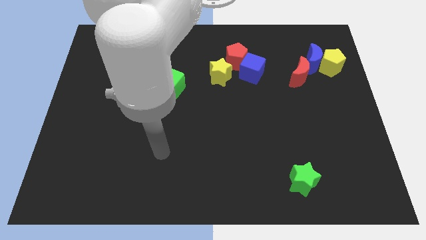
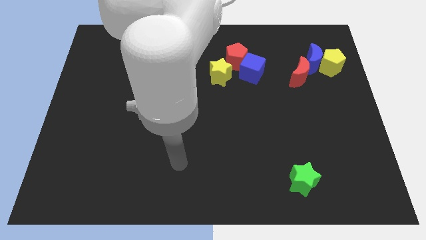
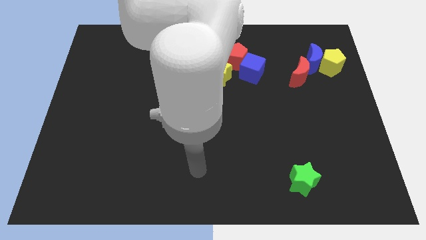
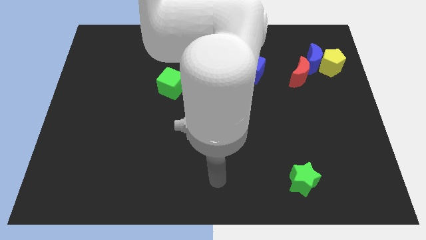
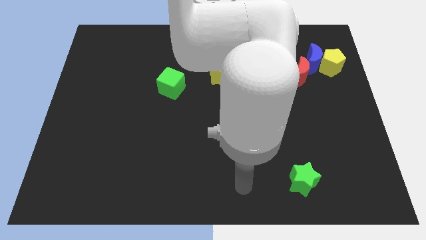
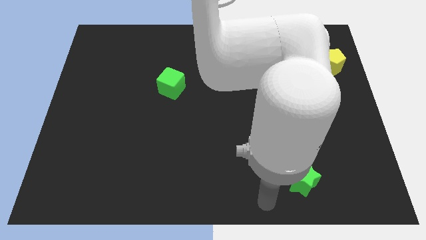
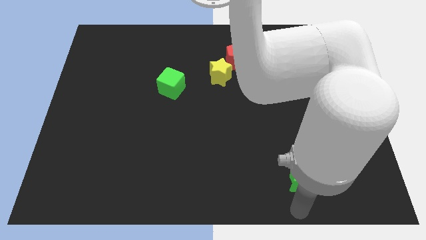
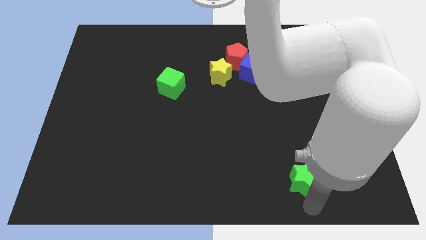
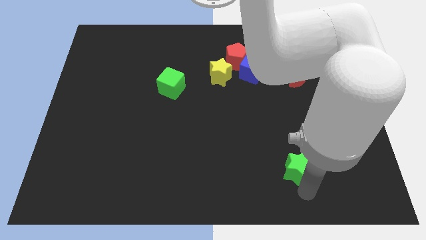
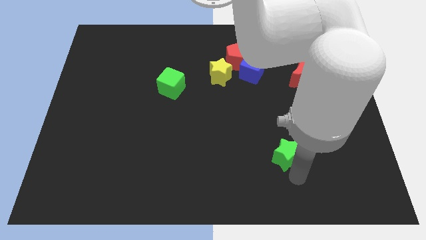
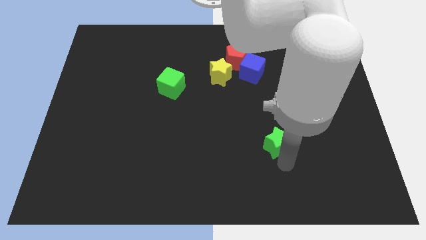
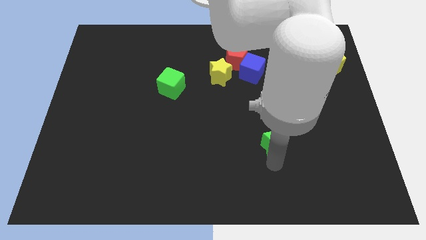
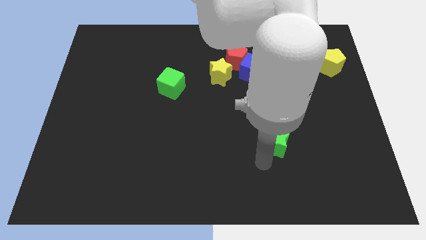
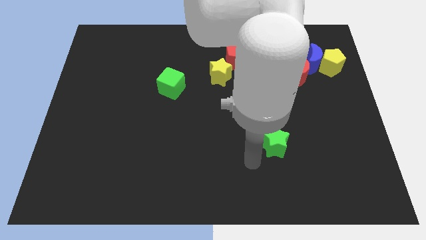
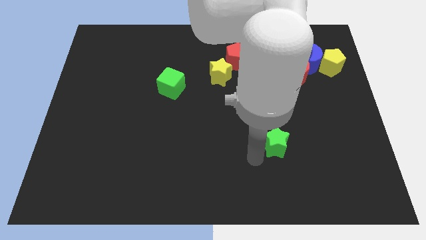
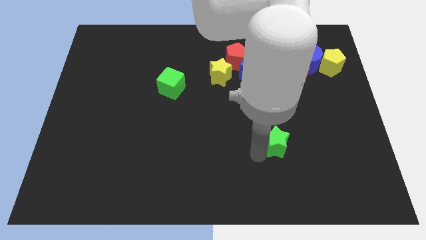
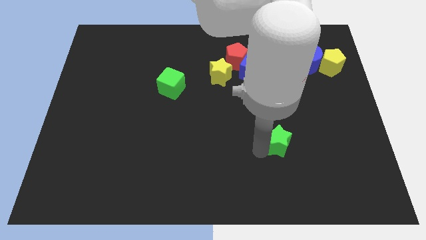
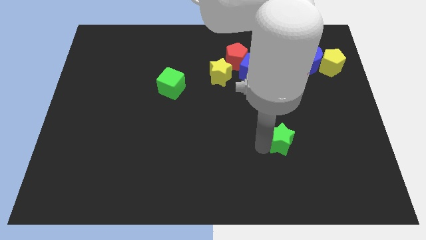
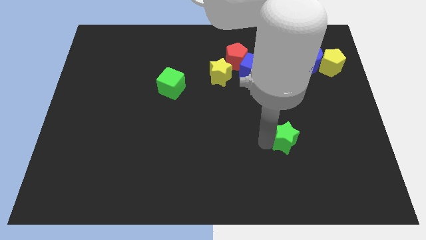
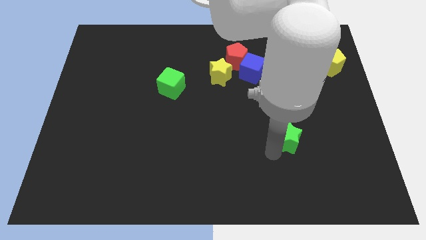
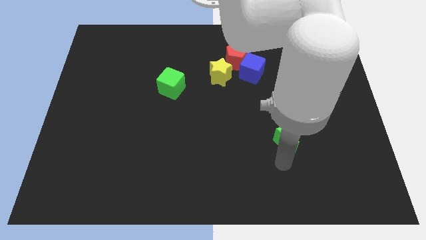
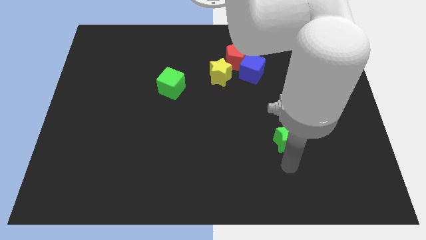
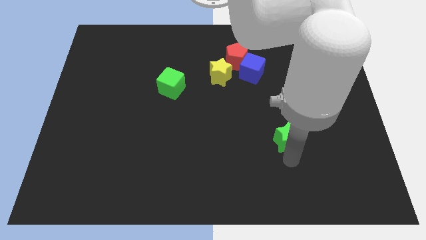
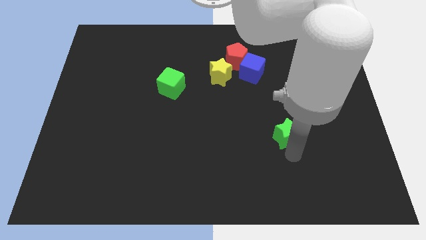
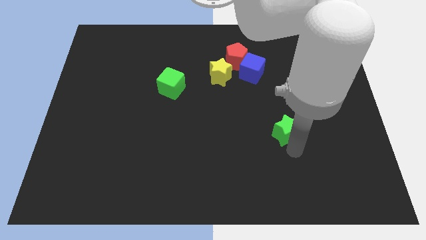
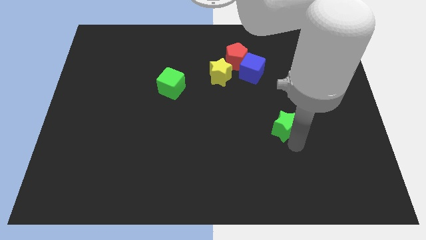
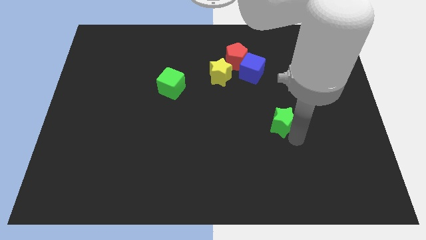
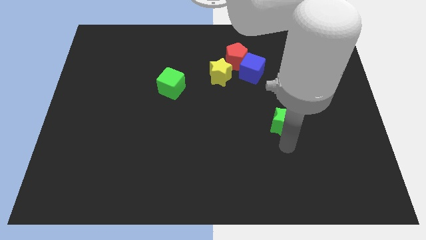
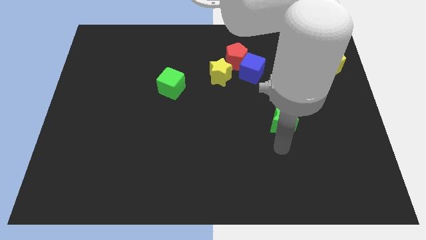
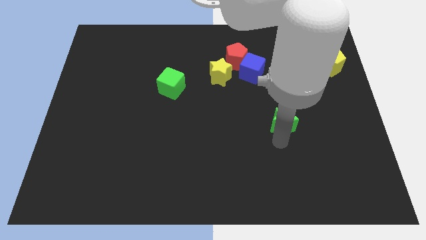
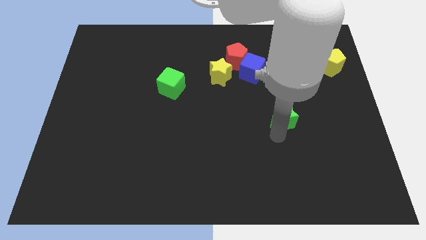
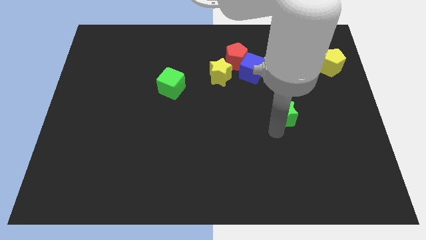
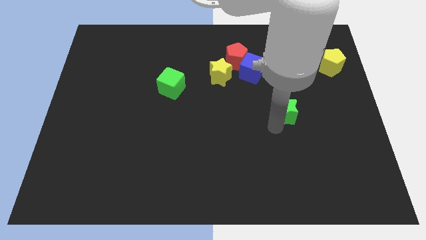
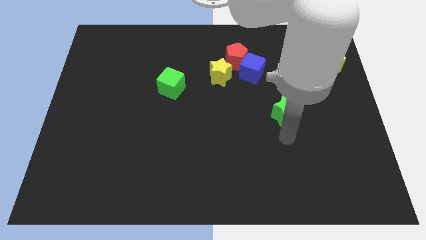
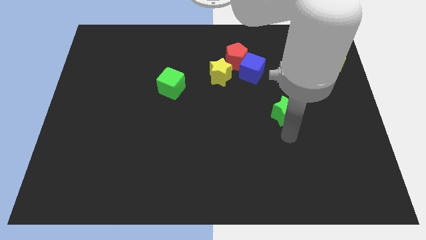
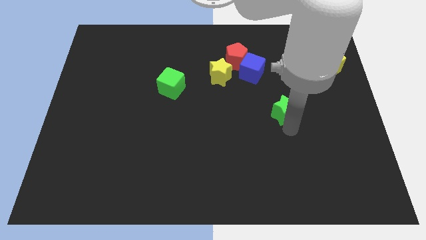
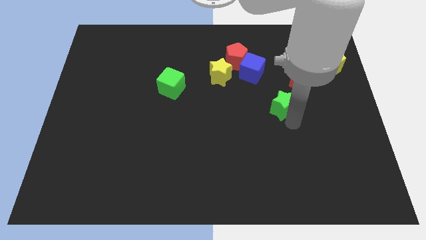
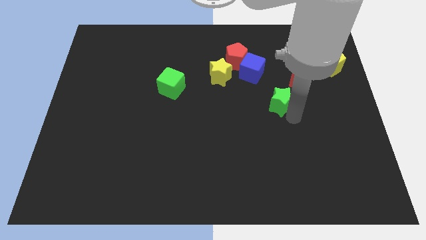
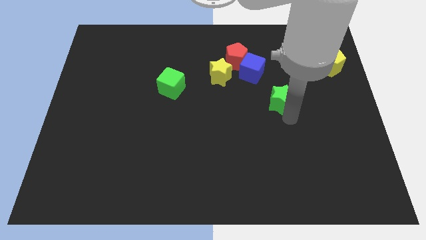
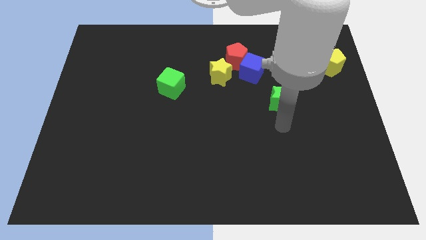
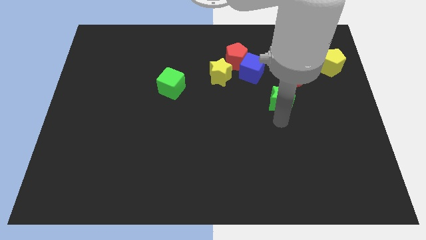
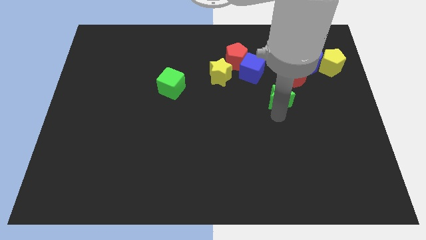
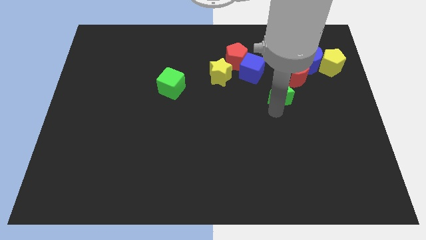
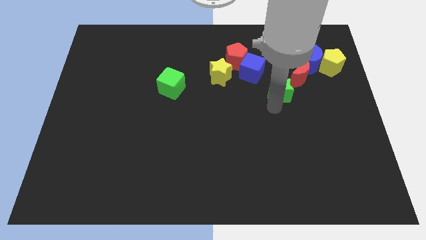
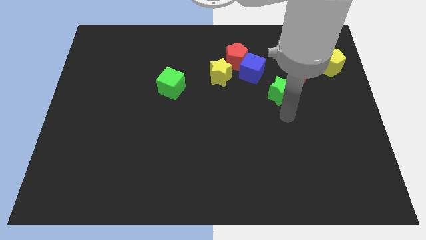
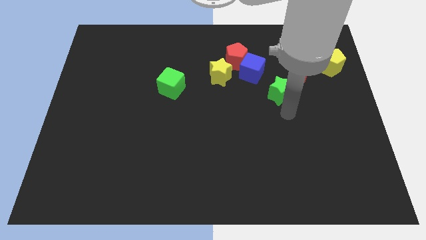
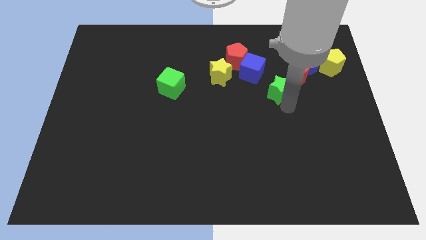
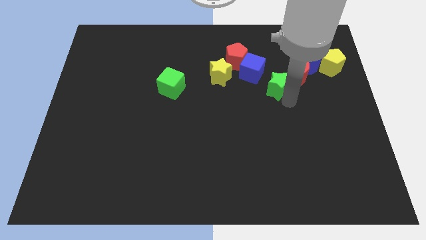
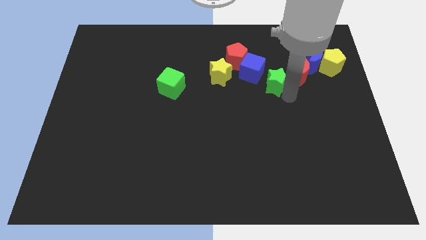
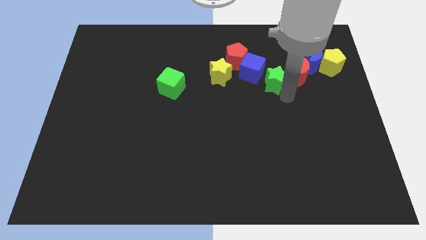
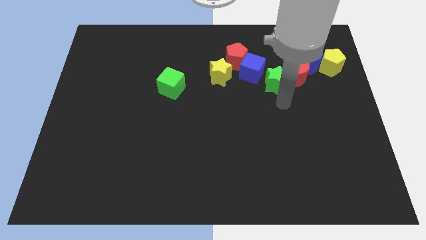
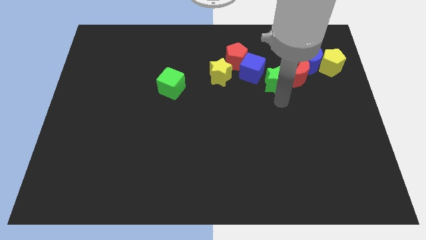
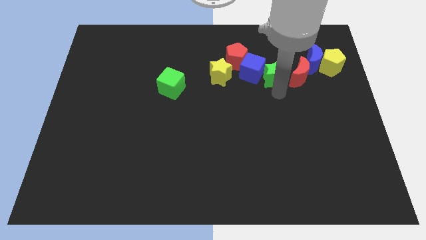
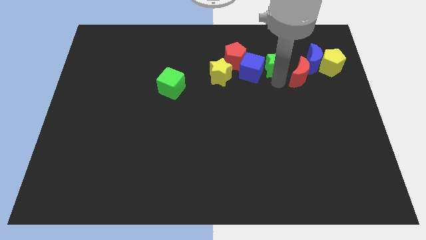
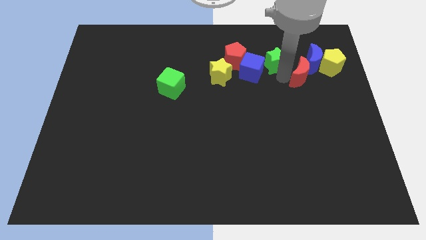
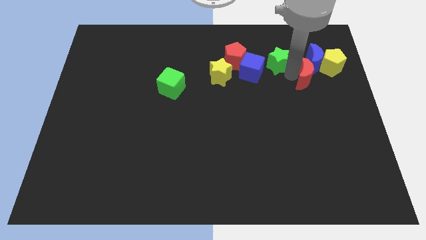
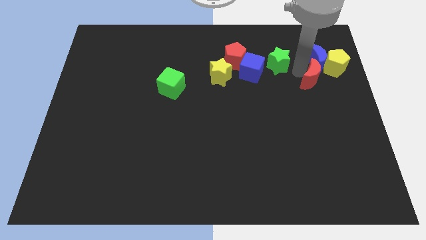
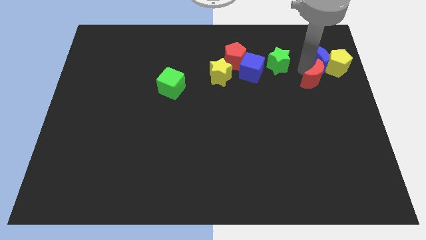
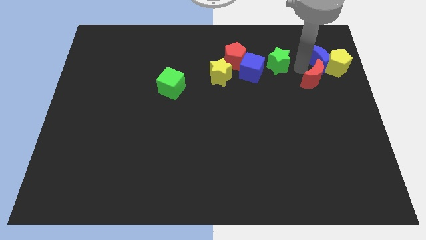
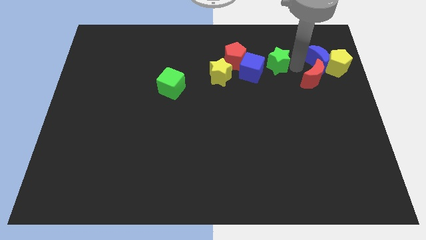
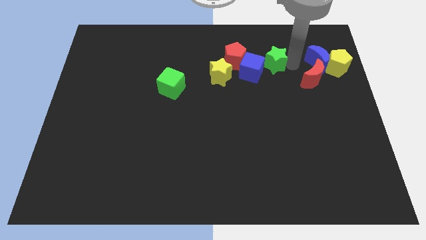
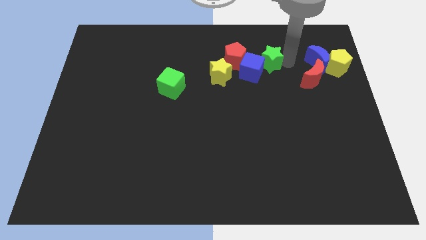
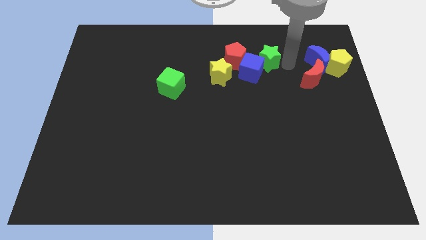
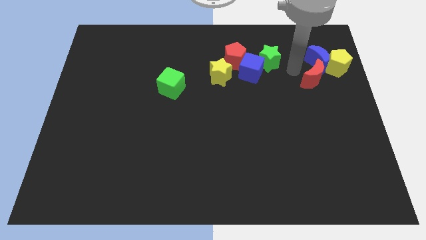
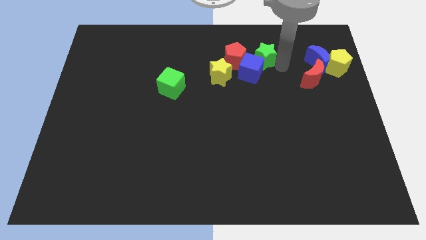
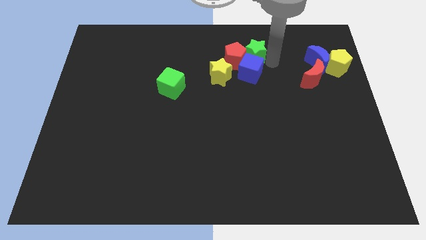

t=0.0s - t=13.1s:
push the green star diagonally up and to the right of the yellow star
